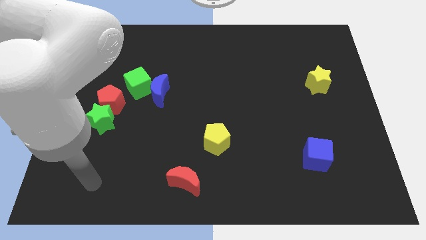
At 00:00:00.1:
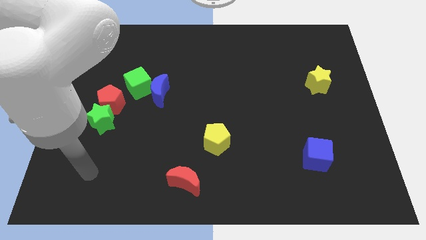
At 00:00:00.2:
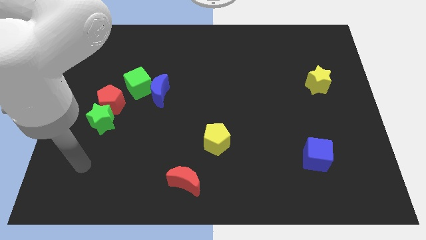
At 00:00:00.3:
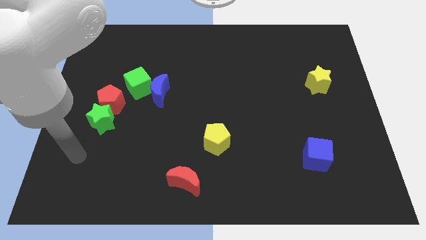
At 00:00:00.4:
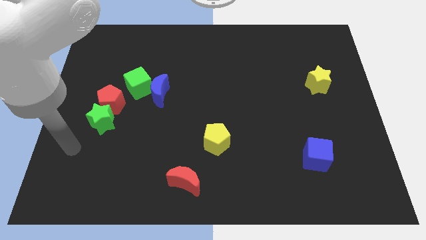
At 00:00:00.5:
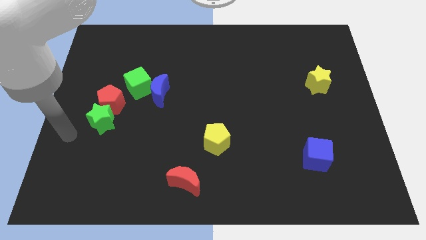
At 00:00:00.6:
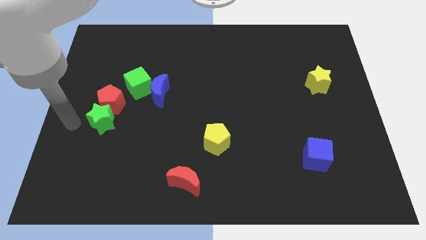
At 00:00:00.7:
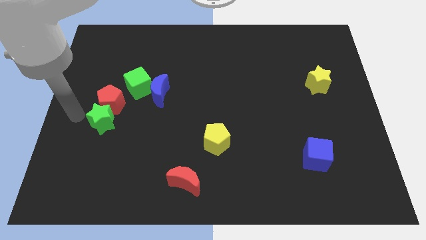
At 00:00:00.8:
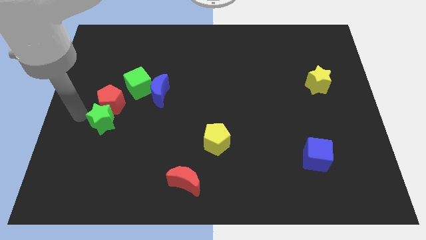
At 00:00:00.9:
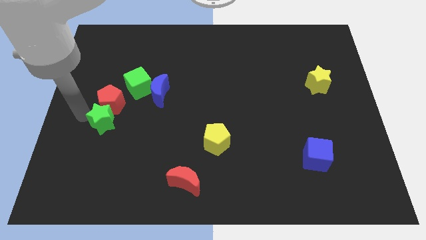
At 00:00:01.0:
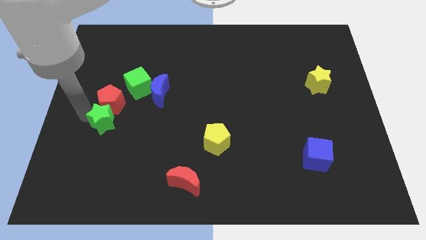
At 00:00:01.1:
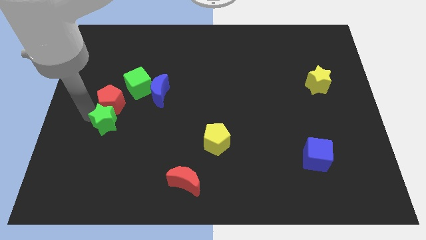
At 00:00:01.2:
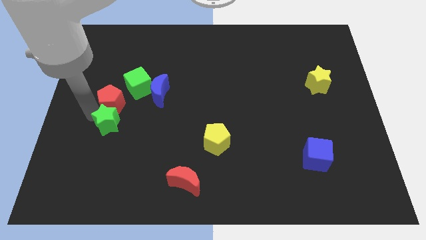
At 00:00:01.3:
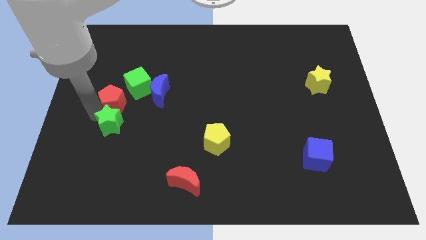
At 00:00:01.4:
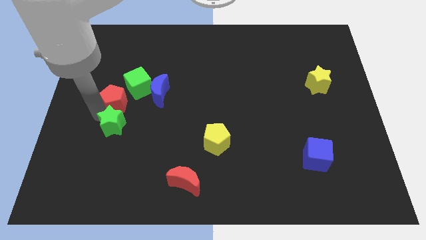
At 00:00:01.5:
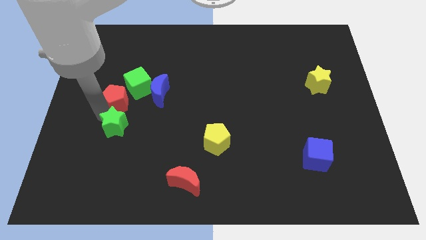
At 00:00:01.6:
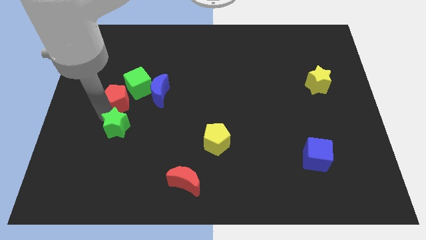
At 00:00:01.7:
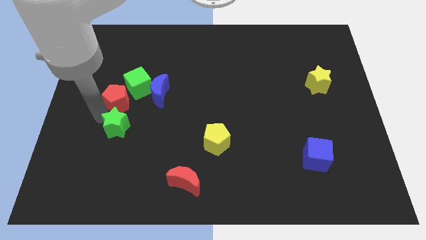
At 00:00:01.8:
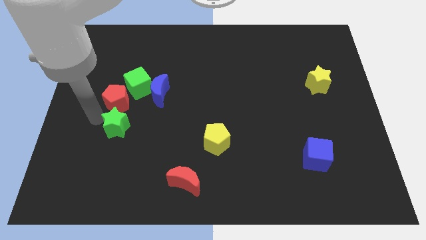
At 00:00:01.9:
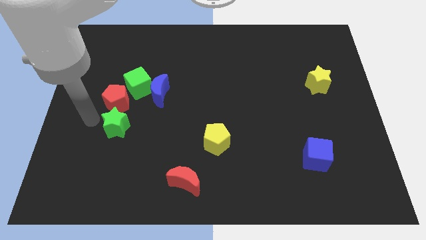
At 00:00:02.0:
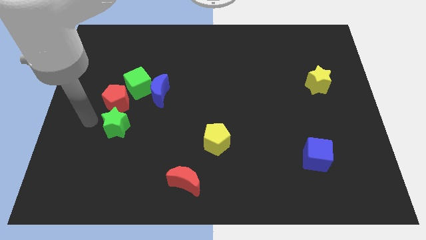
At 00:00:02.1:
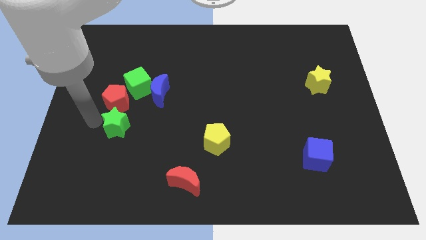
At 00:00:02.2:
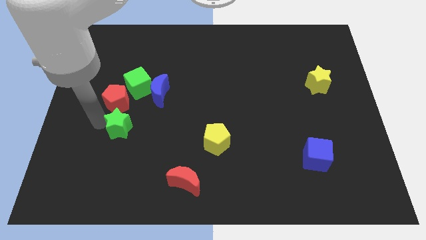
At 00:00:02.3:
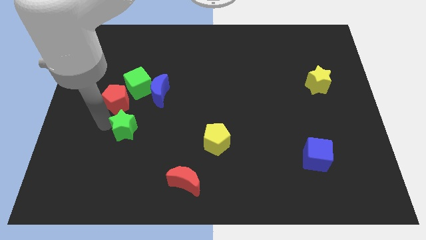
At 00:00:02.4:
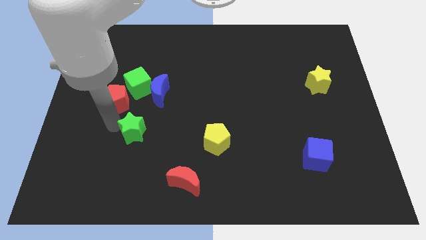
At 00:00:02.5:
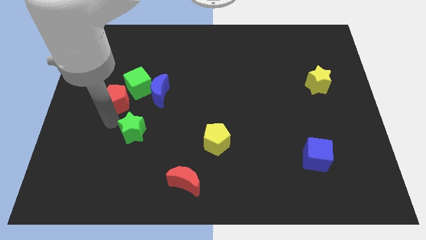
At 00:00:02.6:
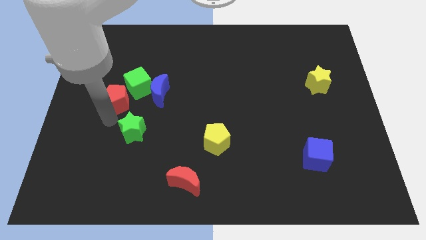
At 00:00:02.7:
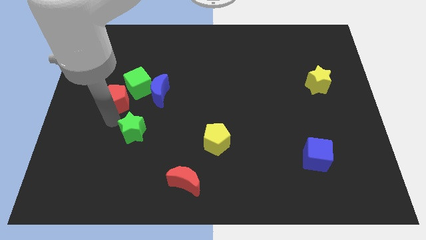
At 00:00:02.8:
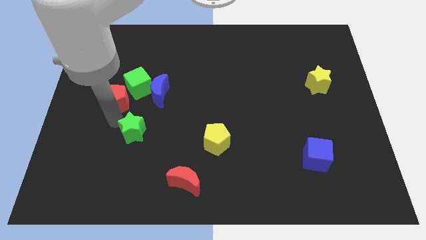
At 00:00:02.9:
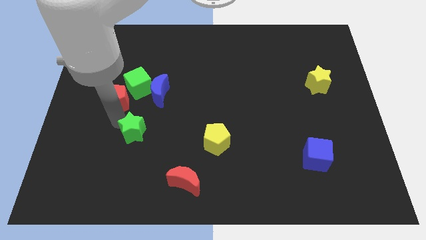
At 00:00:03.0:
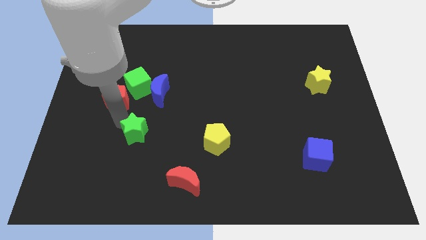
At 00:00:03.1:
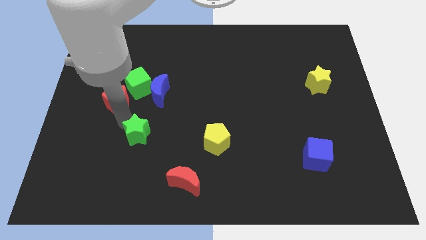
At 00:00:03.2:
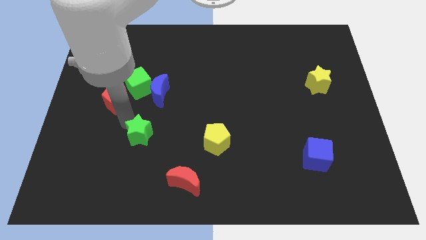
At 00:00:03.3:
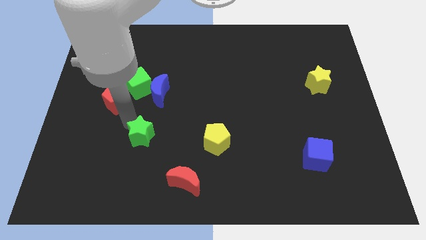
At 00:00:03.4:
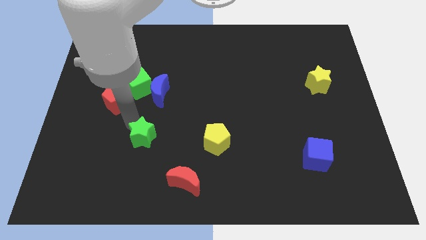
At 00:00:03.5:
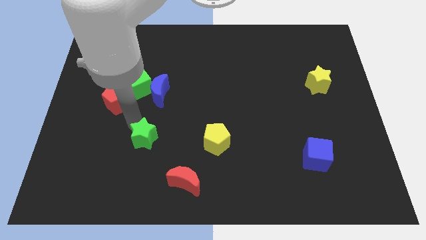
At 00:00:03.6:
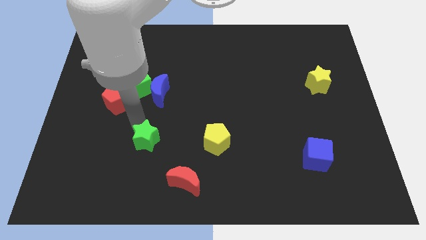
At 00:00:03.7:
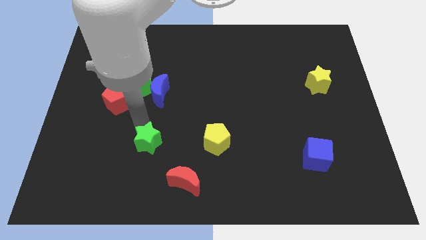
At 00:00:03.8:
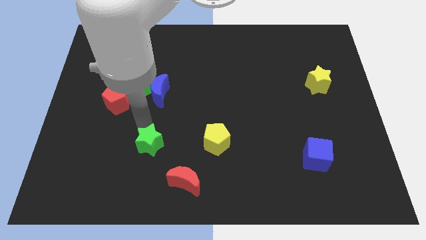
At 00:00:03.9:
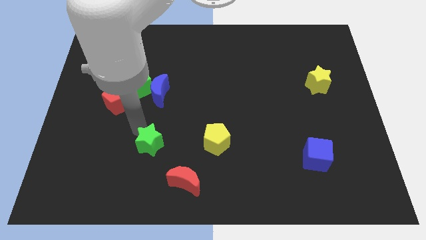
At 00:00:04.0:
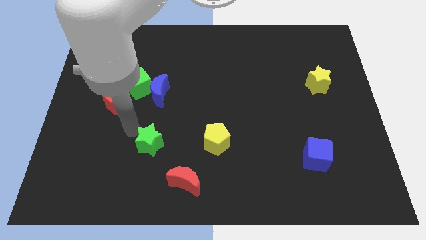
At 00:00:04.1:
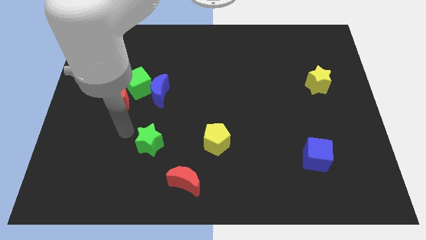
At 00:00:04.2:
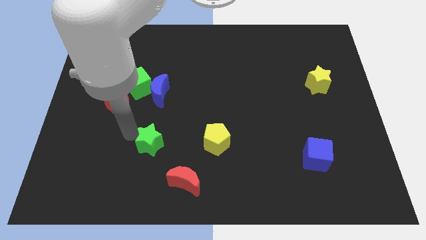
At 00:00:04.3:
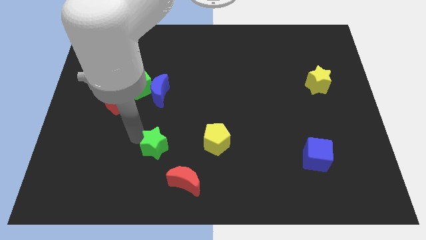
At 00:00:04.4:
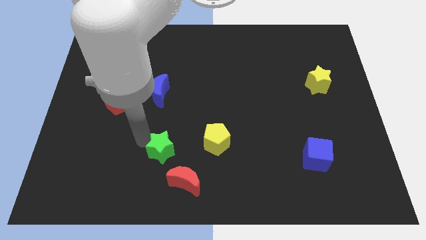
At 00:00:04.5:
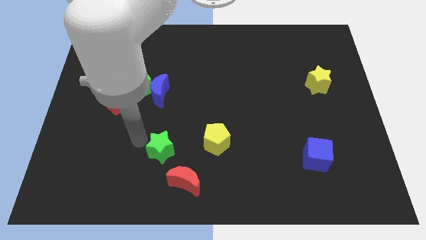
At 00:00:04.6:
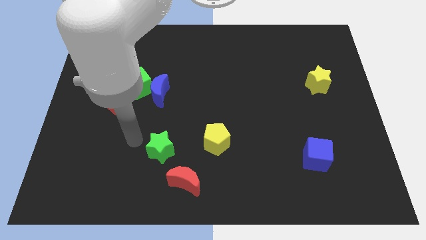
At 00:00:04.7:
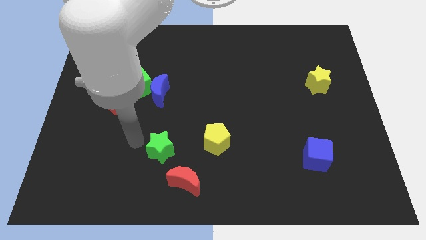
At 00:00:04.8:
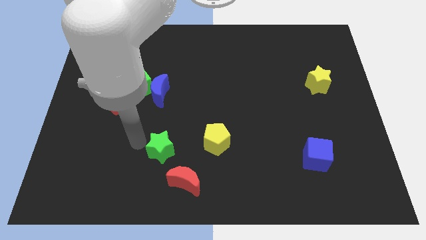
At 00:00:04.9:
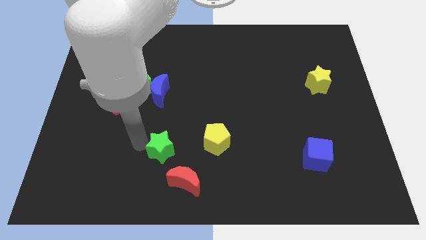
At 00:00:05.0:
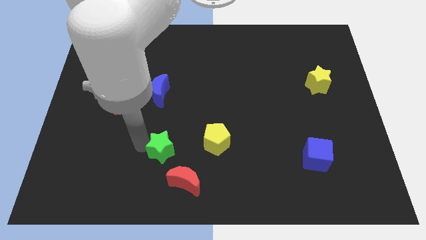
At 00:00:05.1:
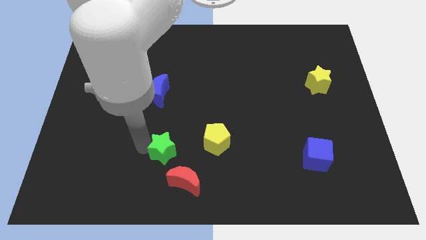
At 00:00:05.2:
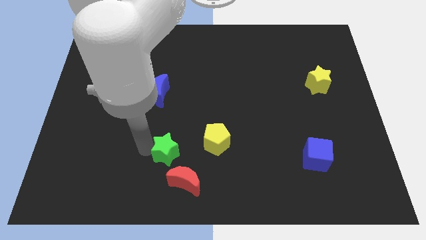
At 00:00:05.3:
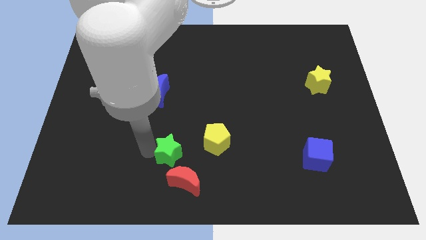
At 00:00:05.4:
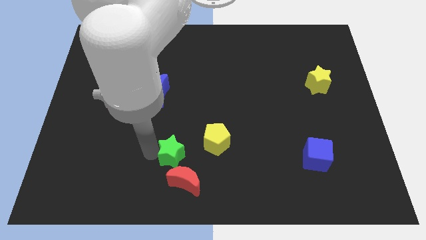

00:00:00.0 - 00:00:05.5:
move the green star to the bottom left side of the yellow pentagon

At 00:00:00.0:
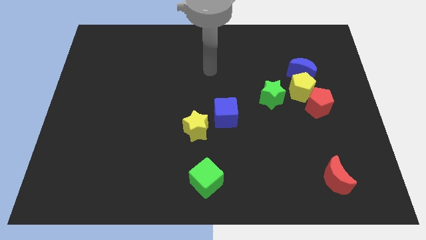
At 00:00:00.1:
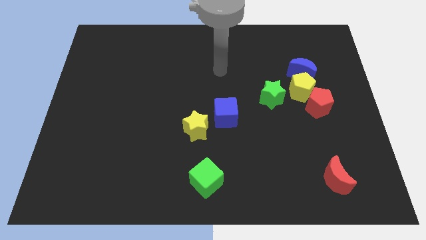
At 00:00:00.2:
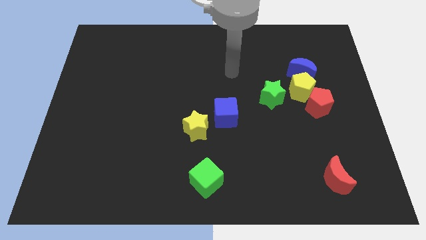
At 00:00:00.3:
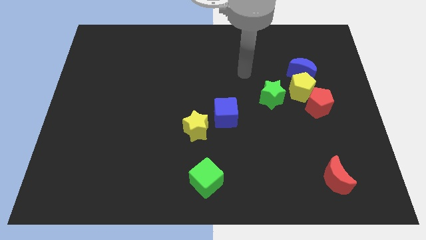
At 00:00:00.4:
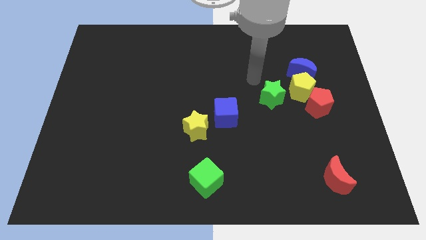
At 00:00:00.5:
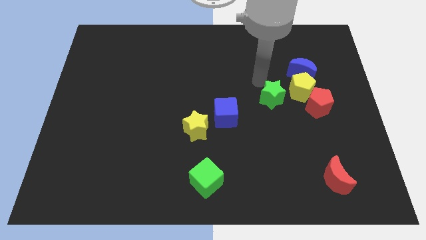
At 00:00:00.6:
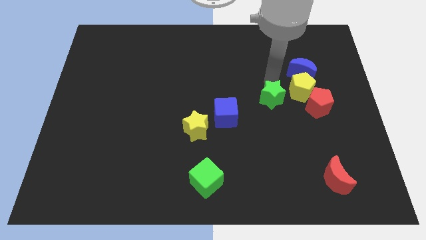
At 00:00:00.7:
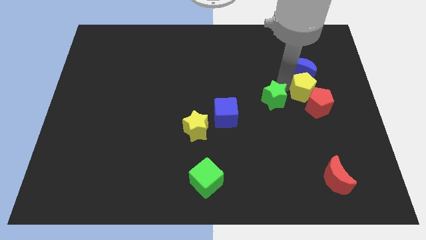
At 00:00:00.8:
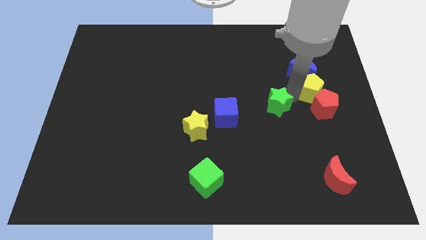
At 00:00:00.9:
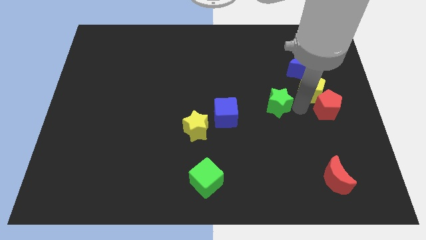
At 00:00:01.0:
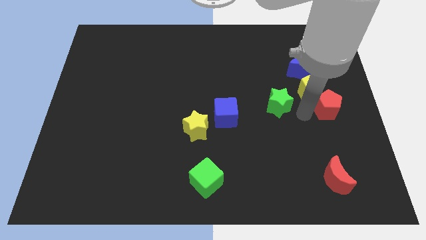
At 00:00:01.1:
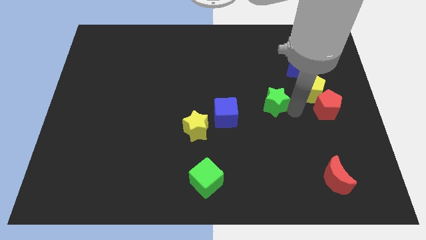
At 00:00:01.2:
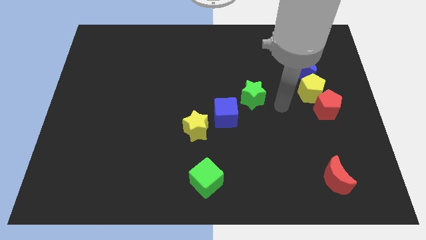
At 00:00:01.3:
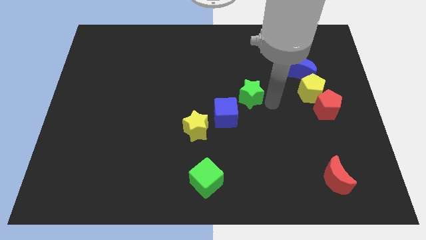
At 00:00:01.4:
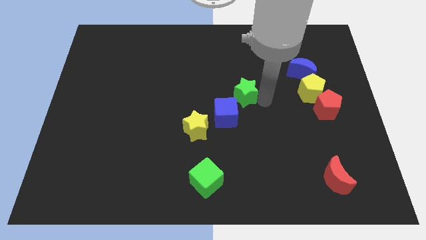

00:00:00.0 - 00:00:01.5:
move the green star to the top side of the blue cube
